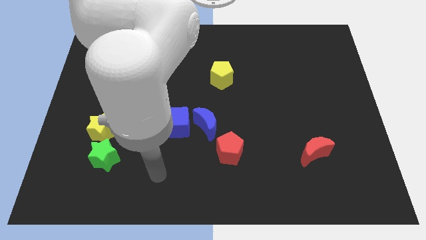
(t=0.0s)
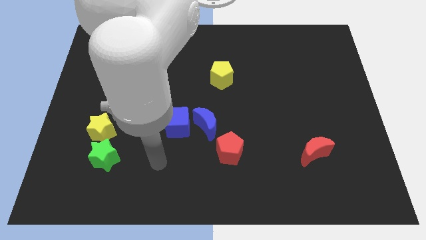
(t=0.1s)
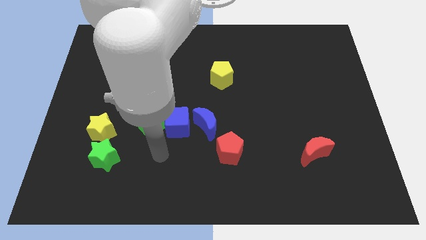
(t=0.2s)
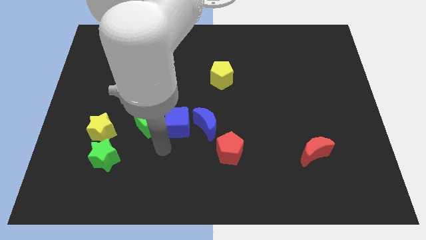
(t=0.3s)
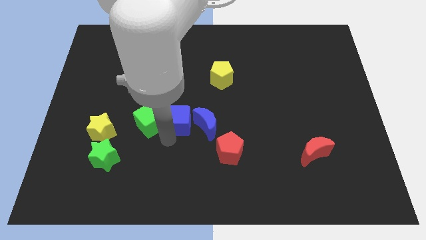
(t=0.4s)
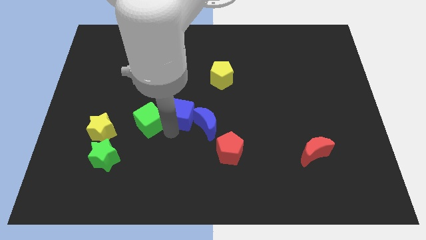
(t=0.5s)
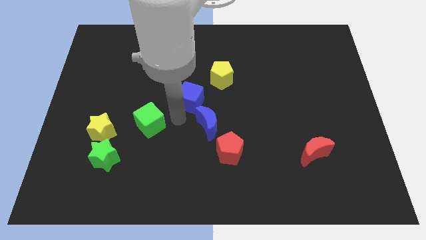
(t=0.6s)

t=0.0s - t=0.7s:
pull the green cube apart from the blue cube

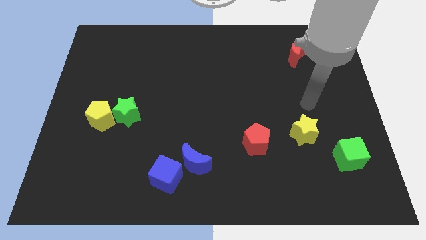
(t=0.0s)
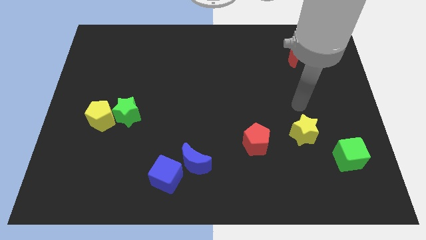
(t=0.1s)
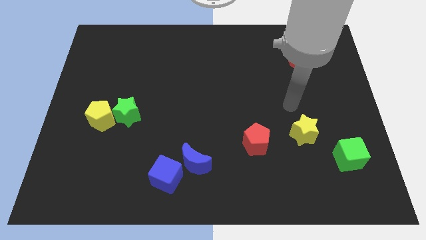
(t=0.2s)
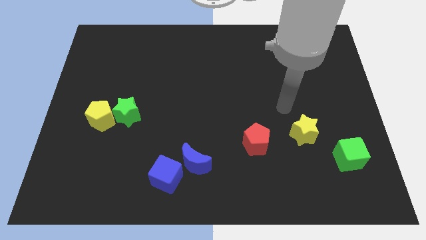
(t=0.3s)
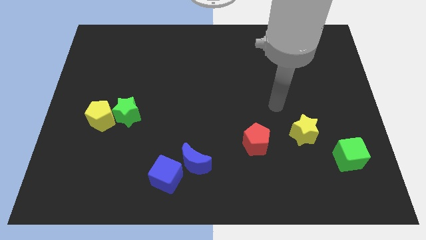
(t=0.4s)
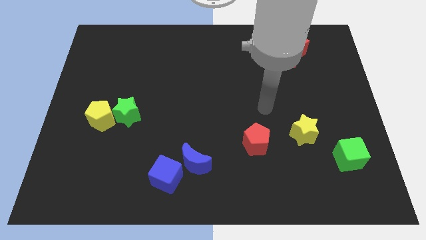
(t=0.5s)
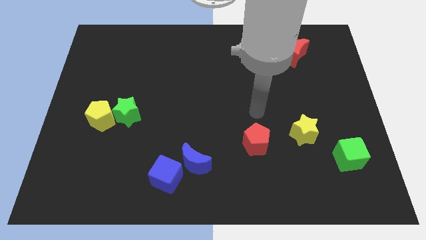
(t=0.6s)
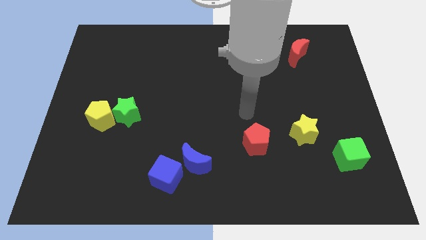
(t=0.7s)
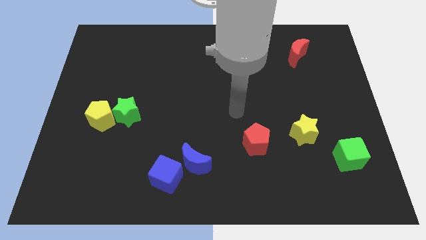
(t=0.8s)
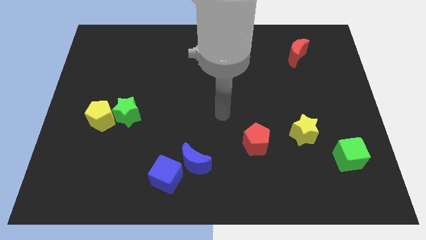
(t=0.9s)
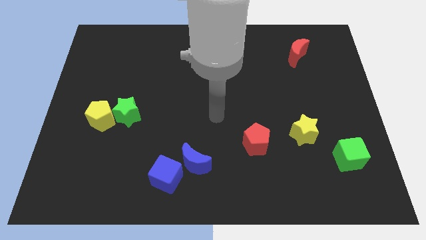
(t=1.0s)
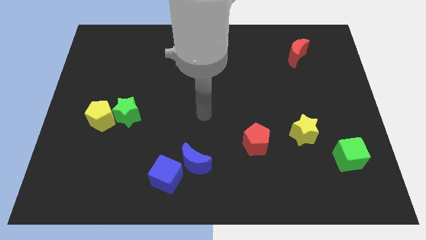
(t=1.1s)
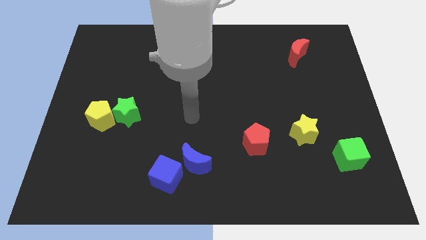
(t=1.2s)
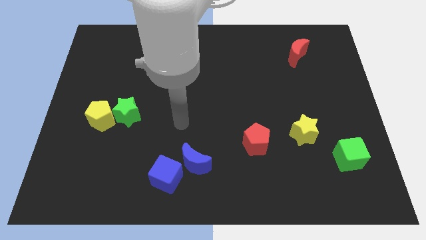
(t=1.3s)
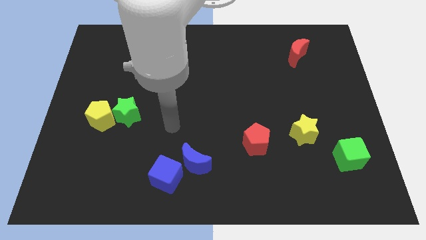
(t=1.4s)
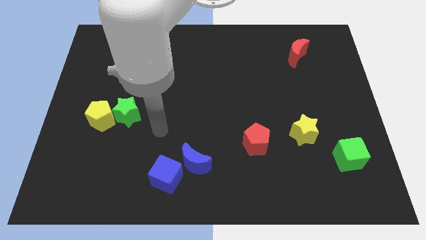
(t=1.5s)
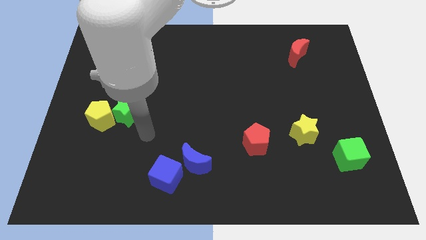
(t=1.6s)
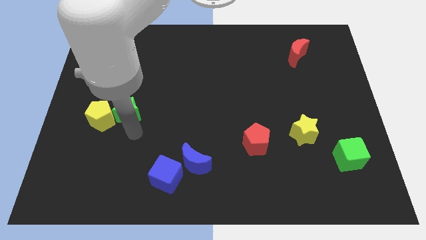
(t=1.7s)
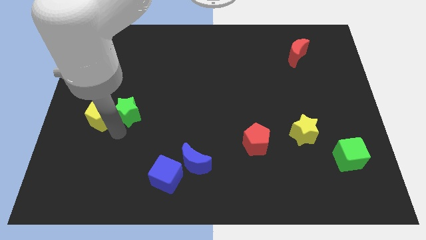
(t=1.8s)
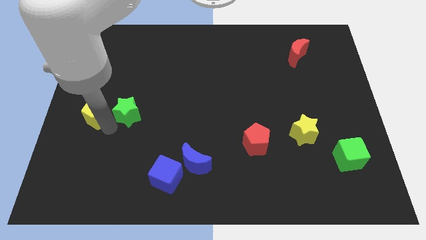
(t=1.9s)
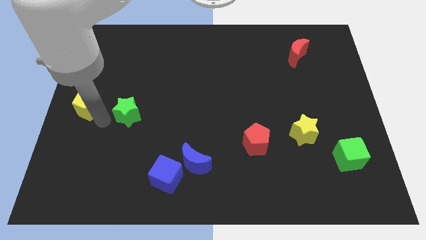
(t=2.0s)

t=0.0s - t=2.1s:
separate the green star from the yellow pentagon

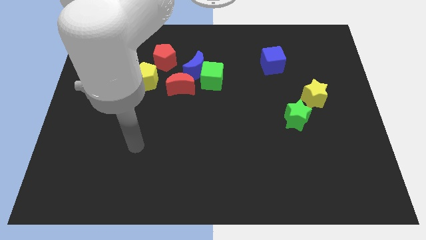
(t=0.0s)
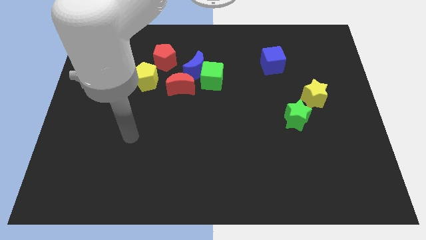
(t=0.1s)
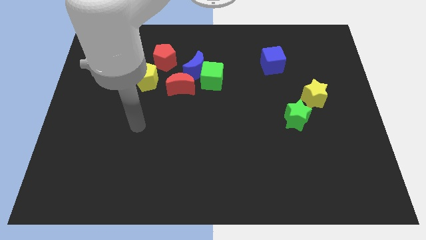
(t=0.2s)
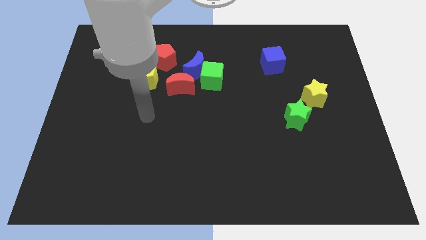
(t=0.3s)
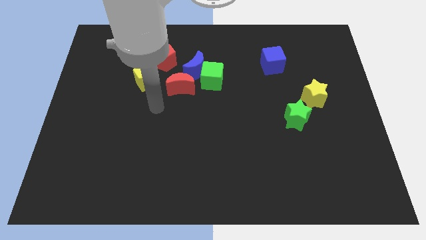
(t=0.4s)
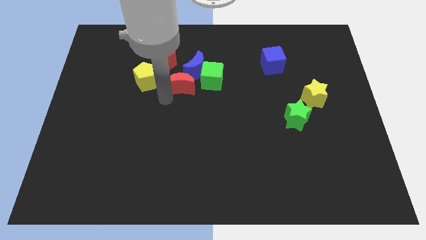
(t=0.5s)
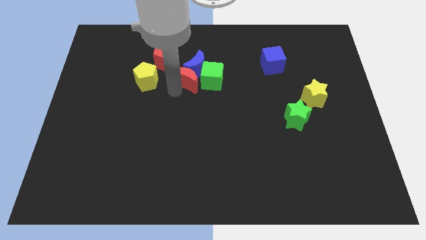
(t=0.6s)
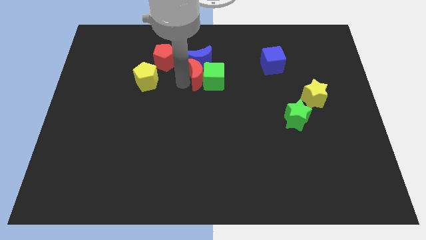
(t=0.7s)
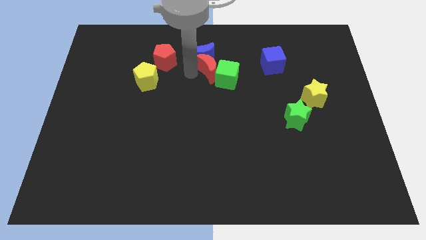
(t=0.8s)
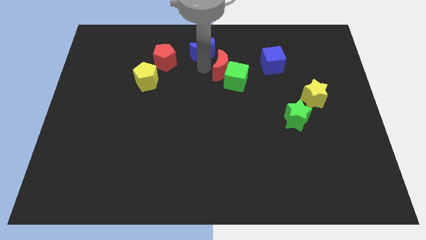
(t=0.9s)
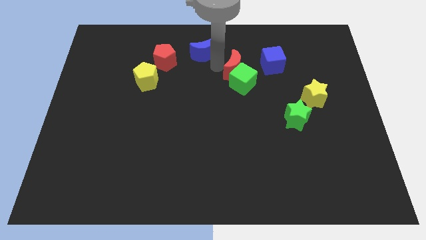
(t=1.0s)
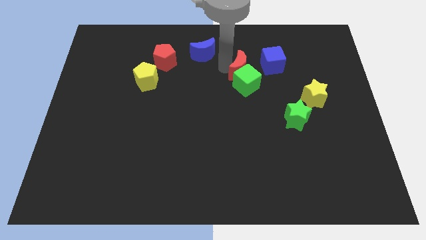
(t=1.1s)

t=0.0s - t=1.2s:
pull the green cube apart from the blue moon and red moon

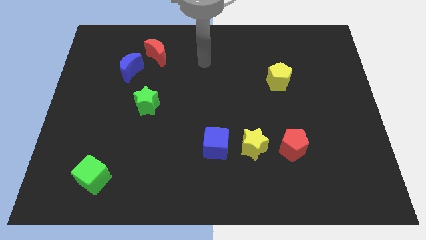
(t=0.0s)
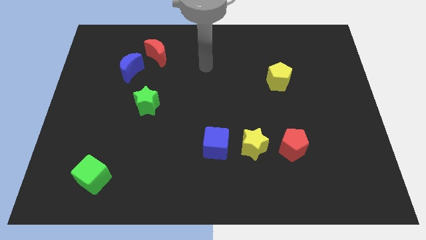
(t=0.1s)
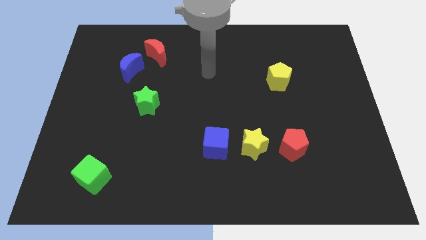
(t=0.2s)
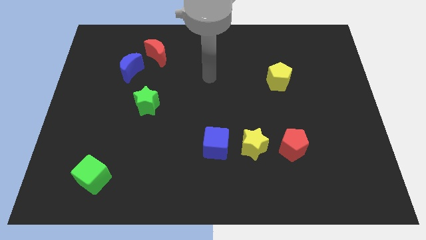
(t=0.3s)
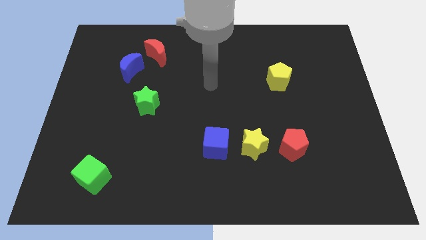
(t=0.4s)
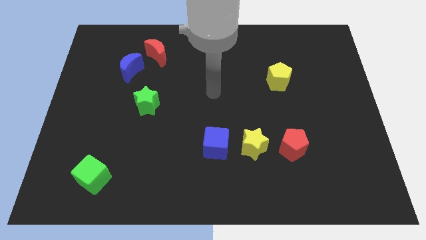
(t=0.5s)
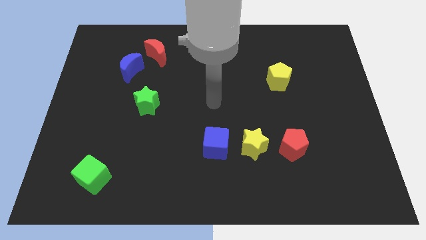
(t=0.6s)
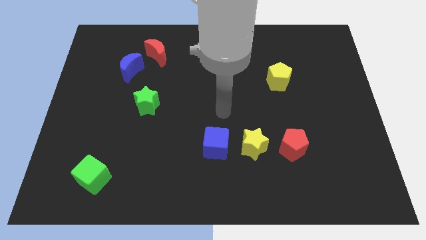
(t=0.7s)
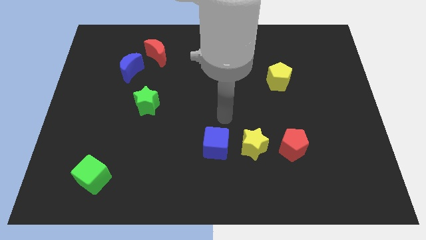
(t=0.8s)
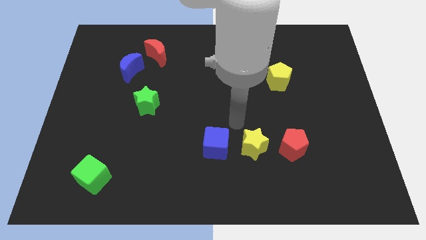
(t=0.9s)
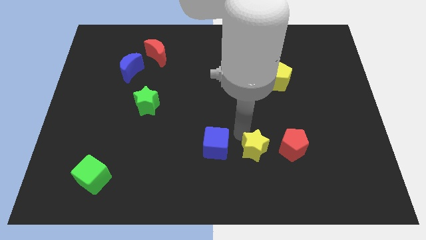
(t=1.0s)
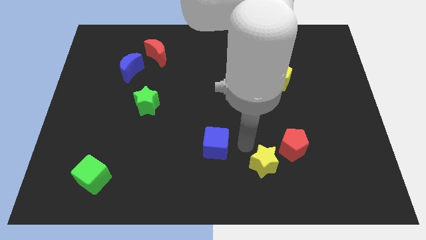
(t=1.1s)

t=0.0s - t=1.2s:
pull the blue cube apart from the yellow star

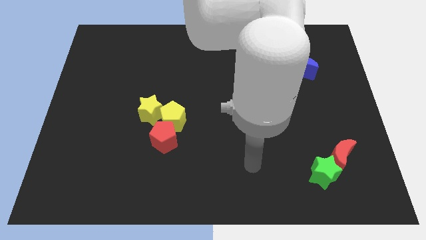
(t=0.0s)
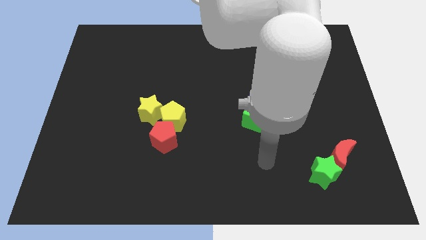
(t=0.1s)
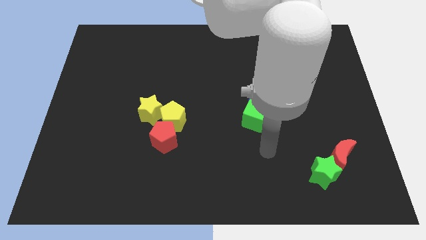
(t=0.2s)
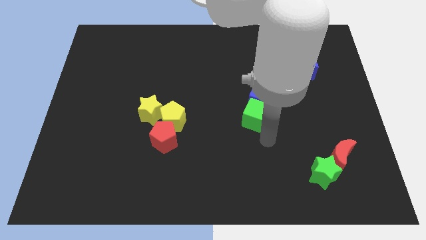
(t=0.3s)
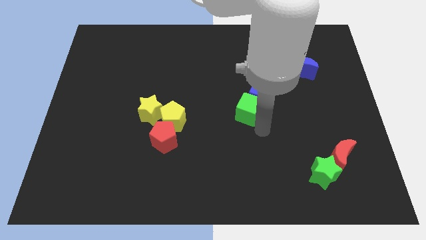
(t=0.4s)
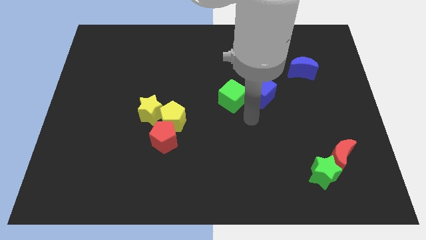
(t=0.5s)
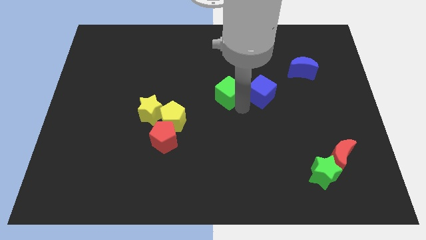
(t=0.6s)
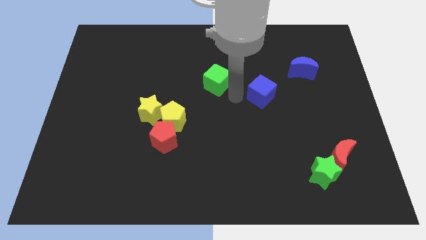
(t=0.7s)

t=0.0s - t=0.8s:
move the blue cube away from the green cube

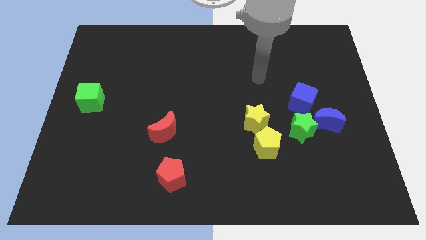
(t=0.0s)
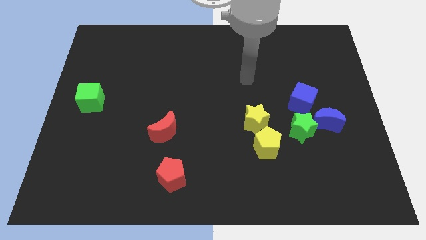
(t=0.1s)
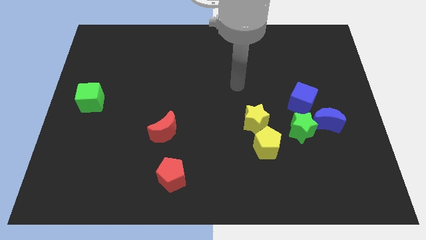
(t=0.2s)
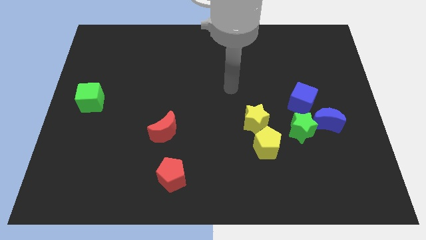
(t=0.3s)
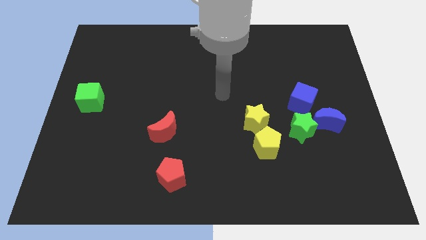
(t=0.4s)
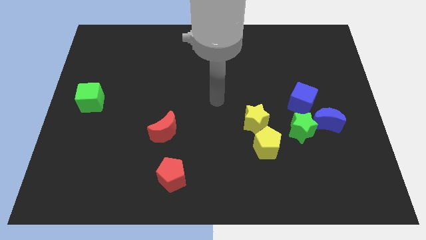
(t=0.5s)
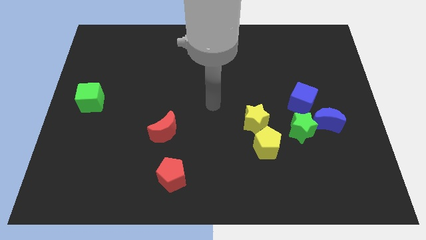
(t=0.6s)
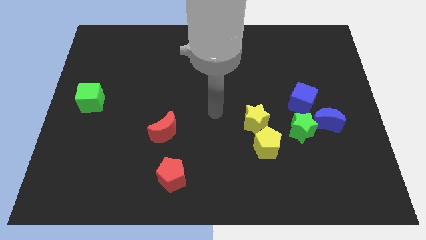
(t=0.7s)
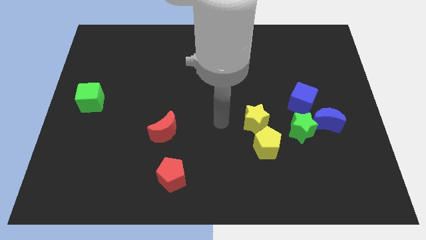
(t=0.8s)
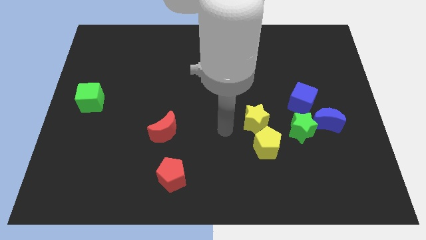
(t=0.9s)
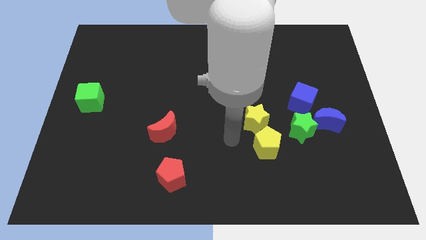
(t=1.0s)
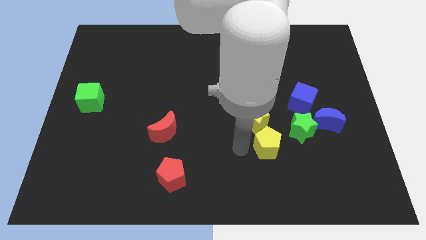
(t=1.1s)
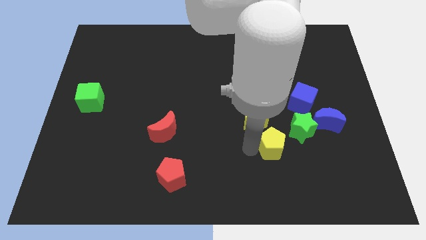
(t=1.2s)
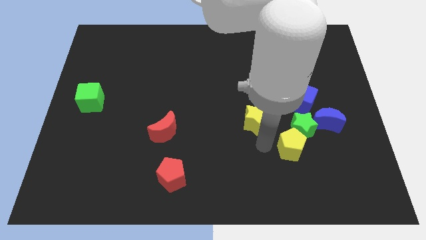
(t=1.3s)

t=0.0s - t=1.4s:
move the yellow star away from the yellow pentagon

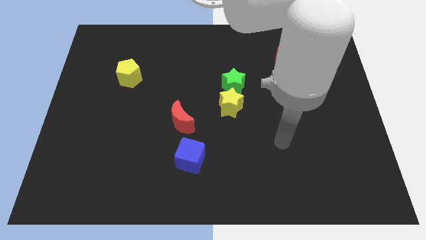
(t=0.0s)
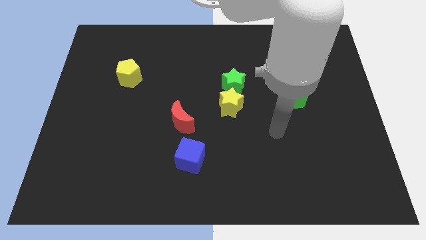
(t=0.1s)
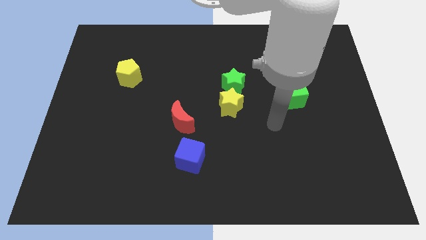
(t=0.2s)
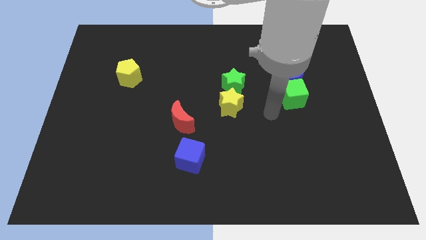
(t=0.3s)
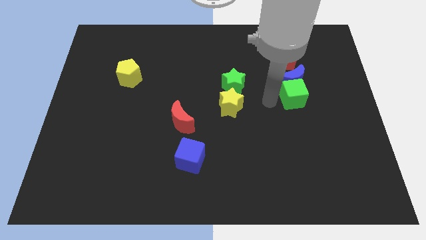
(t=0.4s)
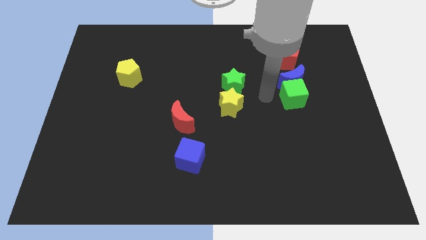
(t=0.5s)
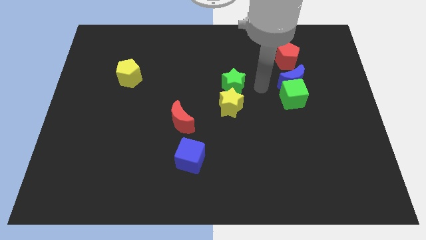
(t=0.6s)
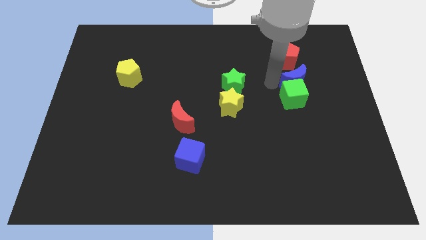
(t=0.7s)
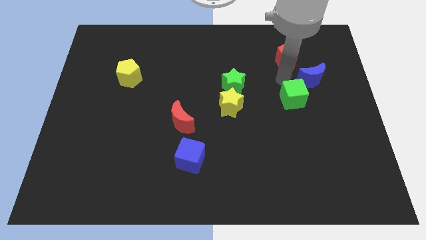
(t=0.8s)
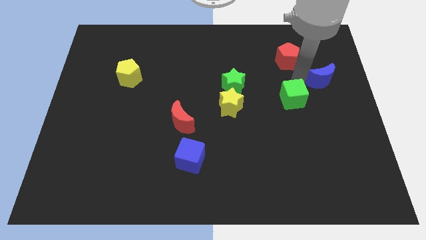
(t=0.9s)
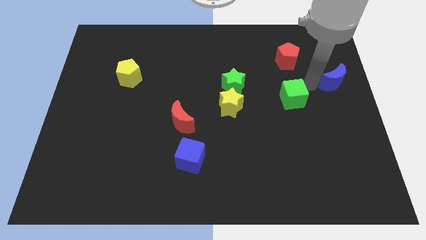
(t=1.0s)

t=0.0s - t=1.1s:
move the green cube away from the blue moon

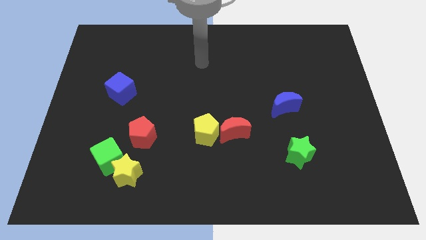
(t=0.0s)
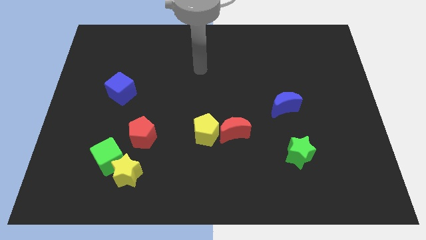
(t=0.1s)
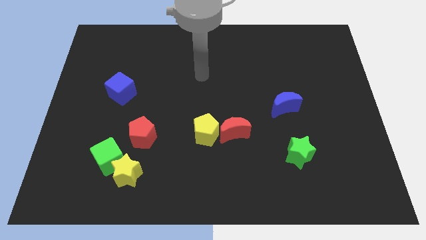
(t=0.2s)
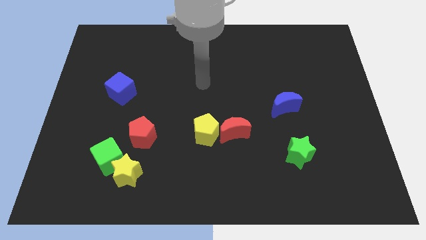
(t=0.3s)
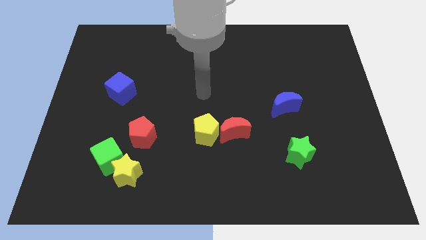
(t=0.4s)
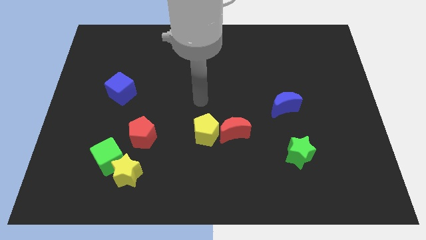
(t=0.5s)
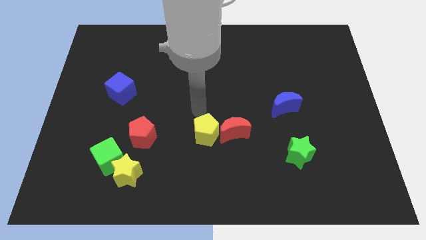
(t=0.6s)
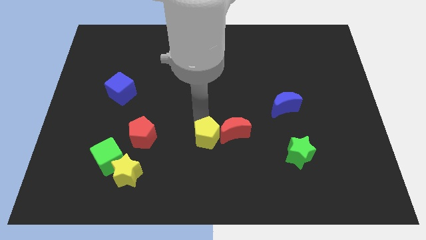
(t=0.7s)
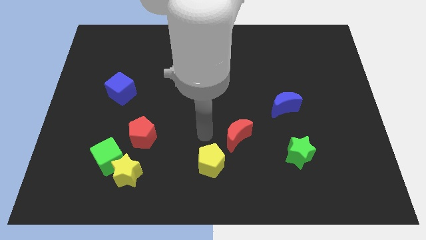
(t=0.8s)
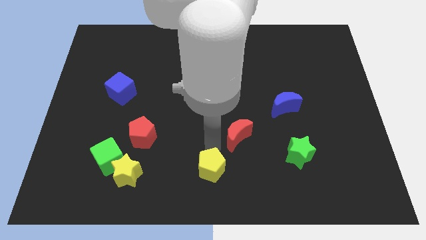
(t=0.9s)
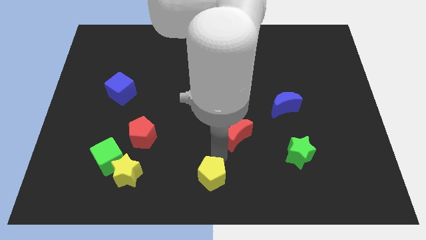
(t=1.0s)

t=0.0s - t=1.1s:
pull the red moon apart from the yellow pentagon
